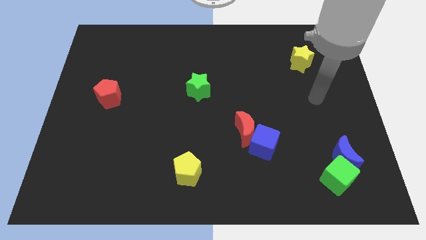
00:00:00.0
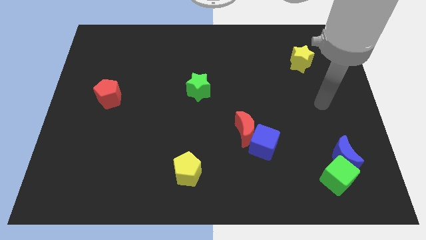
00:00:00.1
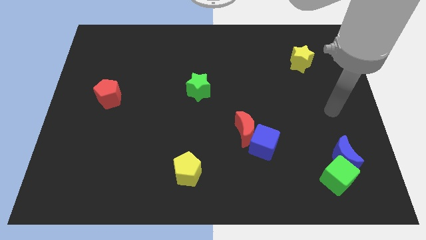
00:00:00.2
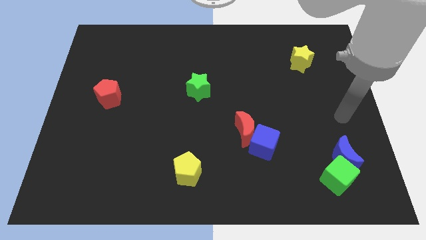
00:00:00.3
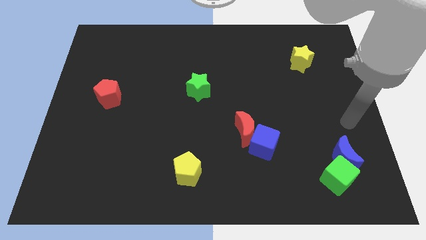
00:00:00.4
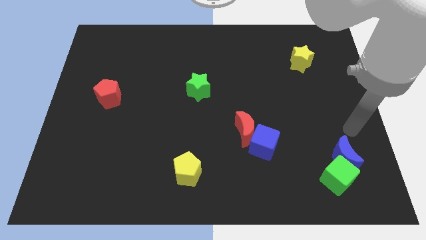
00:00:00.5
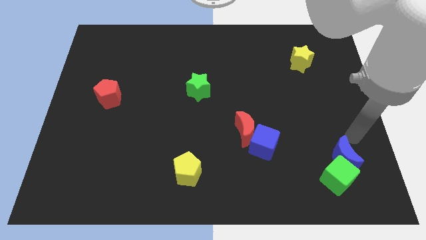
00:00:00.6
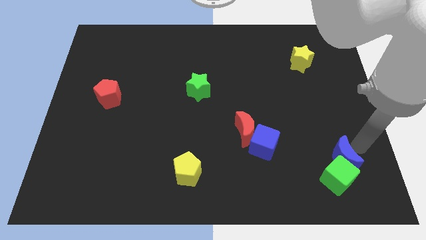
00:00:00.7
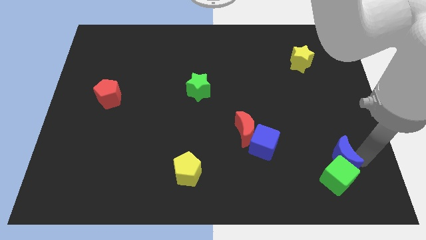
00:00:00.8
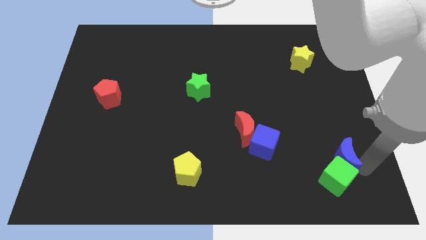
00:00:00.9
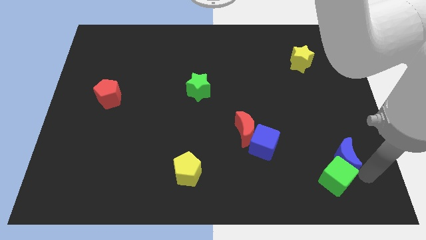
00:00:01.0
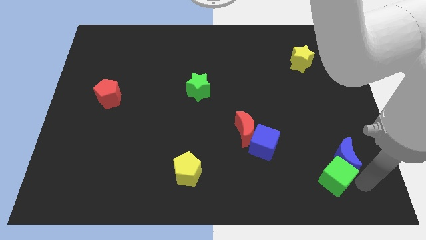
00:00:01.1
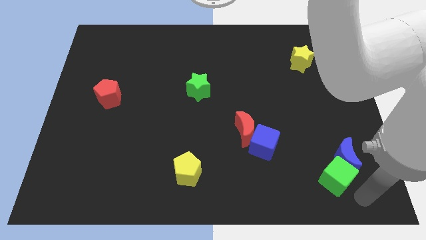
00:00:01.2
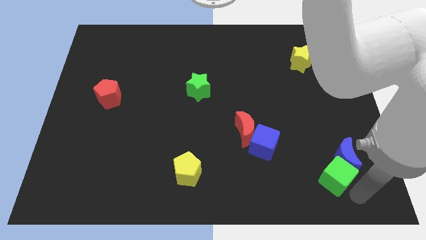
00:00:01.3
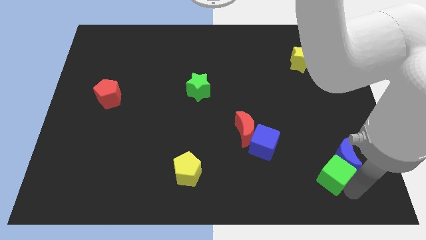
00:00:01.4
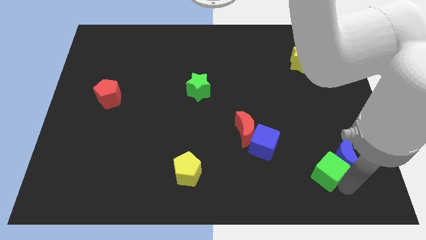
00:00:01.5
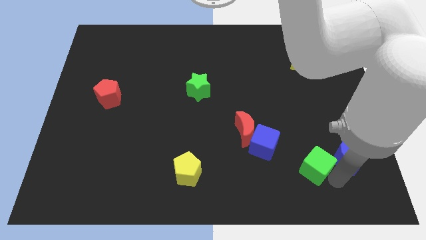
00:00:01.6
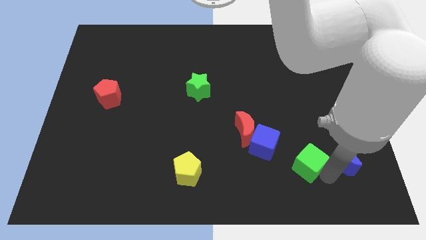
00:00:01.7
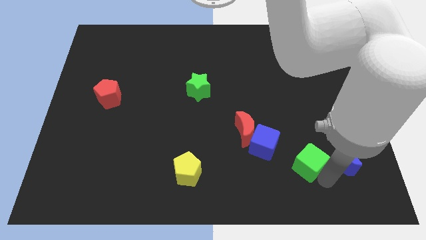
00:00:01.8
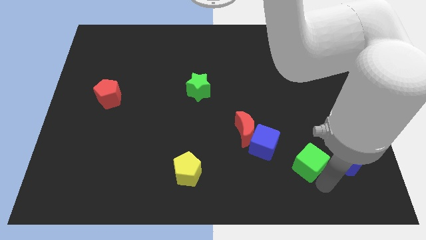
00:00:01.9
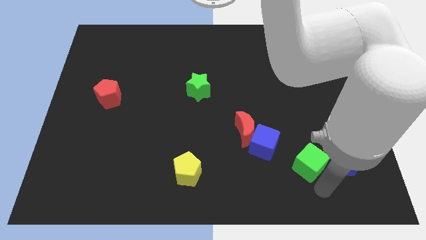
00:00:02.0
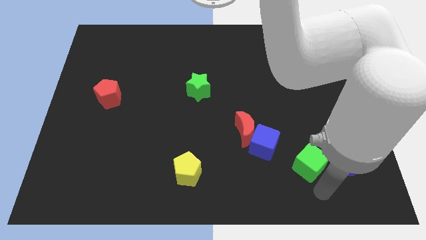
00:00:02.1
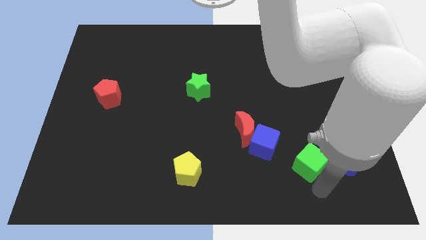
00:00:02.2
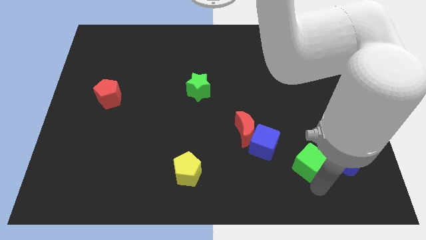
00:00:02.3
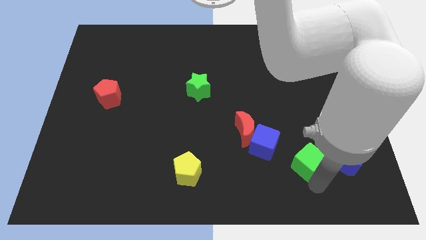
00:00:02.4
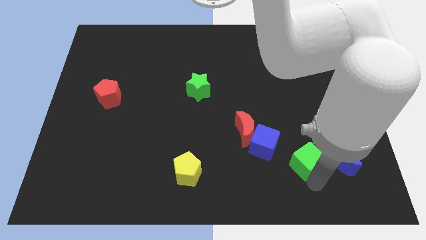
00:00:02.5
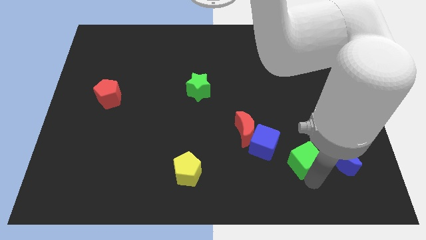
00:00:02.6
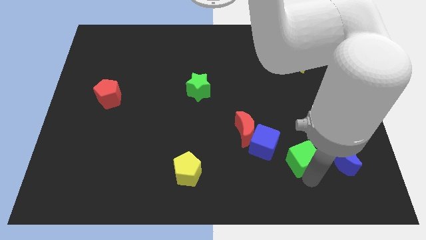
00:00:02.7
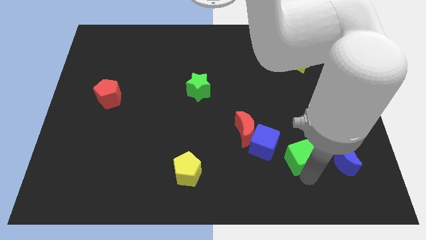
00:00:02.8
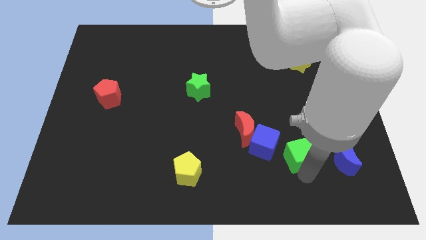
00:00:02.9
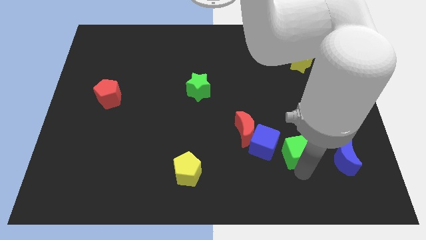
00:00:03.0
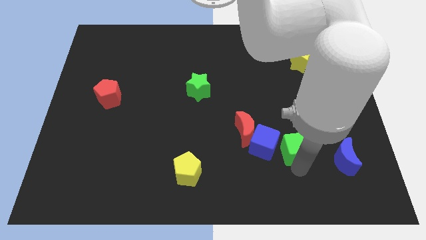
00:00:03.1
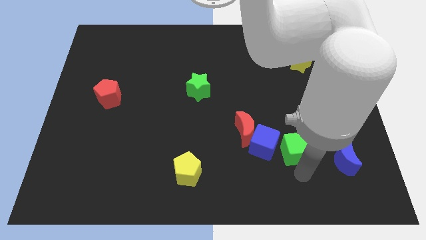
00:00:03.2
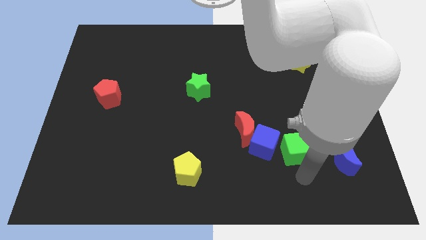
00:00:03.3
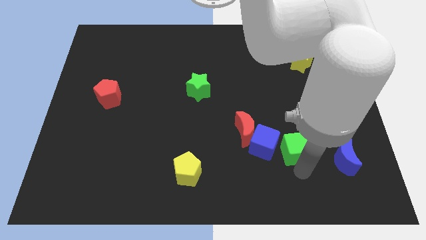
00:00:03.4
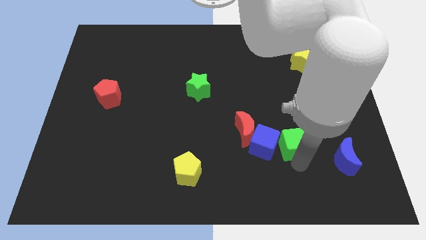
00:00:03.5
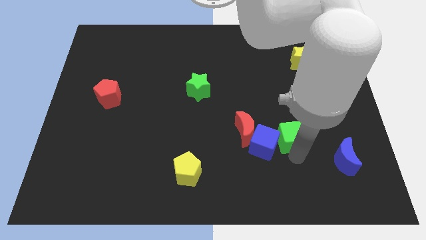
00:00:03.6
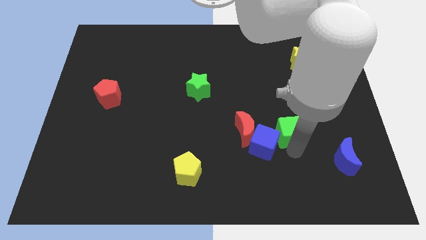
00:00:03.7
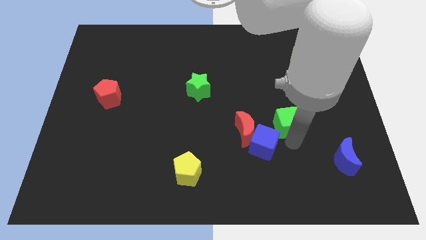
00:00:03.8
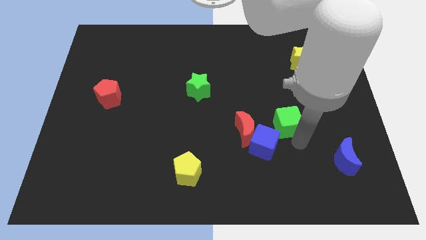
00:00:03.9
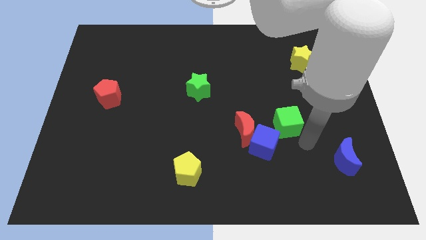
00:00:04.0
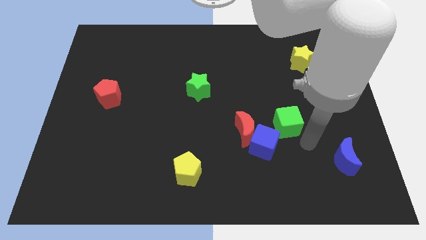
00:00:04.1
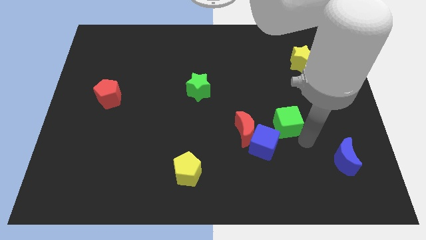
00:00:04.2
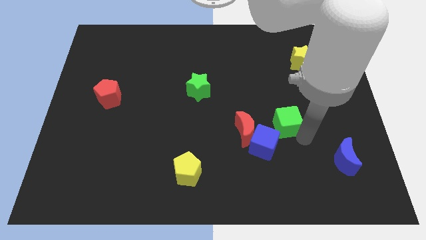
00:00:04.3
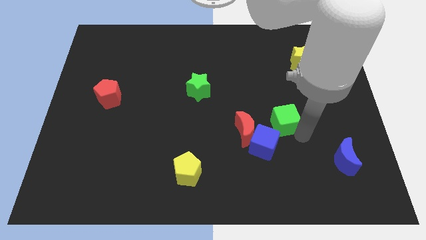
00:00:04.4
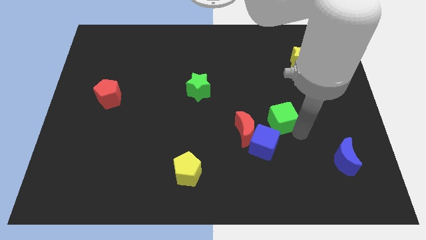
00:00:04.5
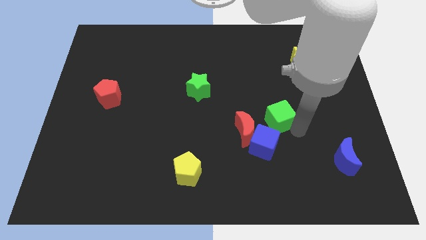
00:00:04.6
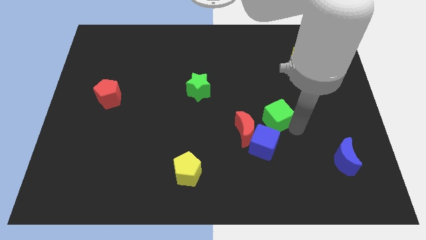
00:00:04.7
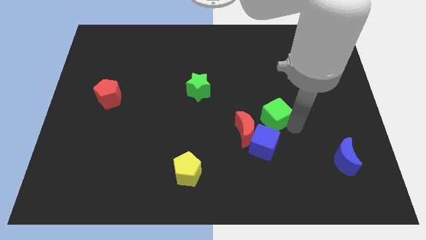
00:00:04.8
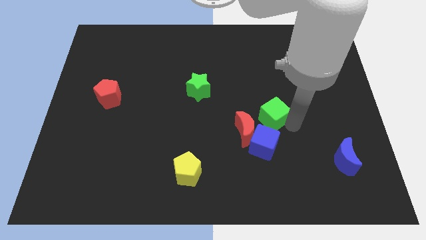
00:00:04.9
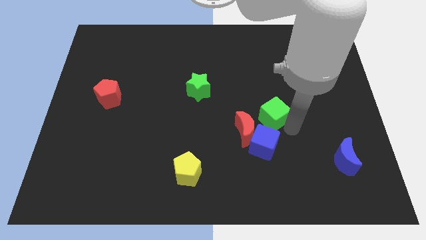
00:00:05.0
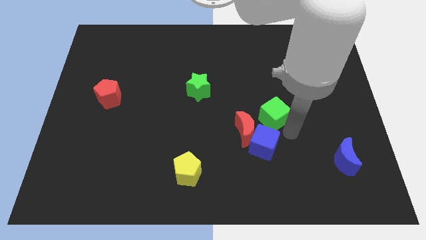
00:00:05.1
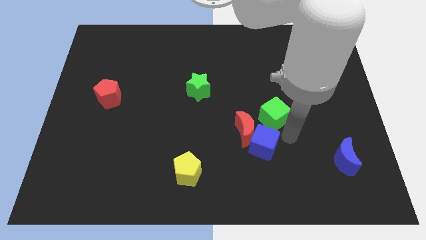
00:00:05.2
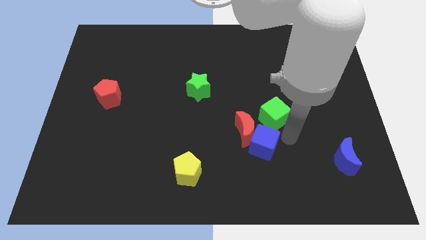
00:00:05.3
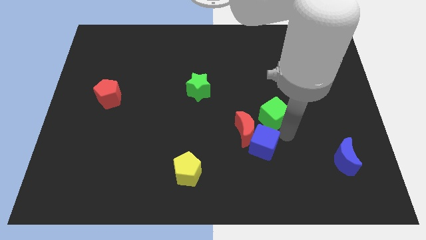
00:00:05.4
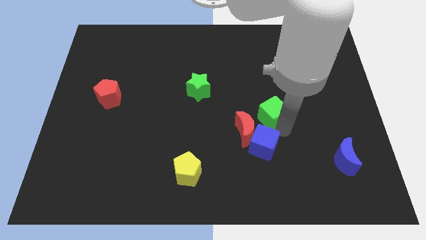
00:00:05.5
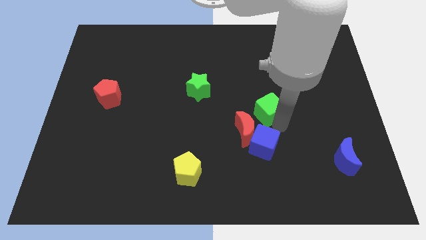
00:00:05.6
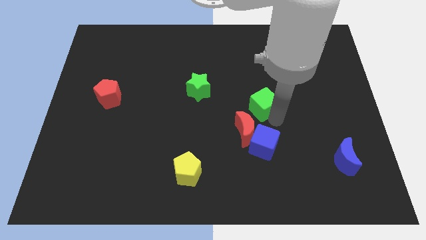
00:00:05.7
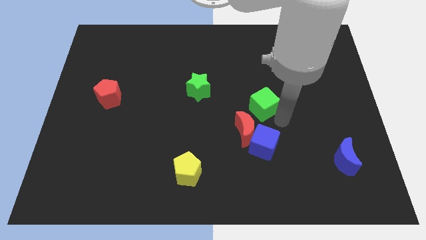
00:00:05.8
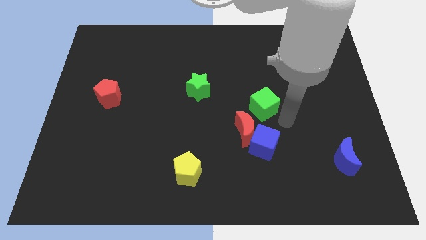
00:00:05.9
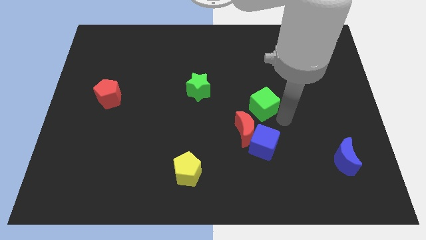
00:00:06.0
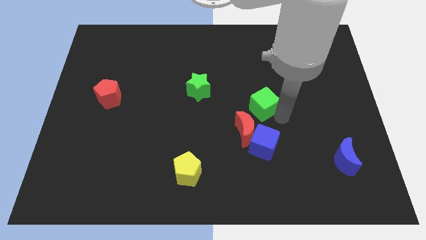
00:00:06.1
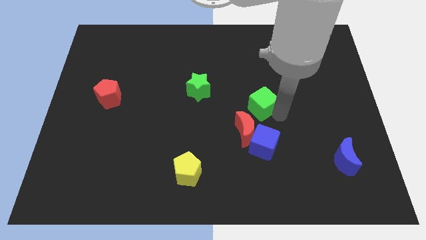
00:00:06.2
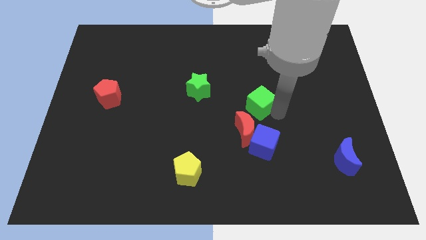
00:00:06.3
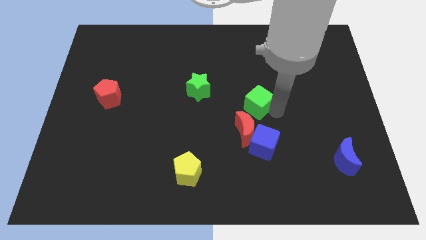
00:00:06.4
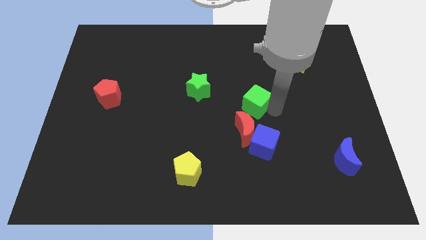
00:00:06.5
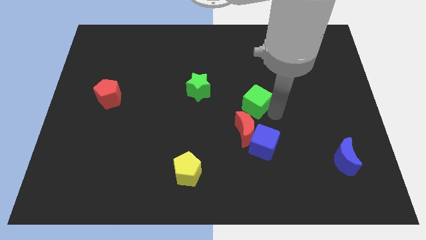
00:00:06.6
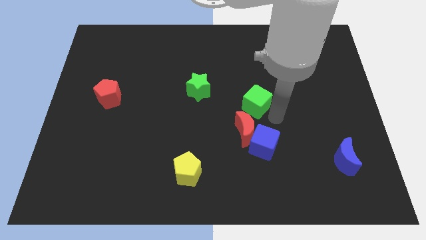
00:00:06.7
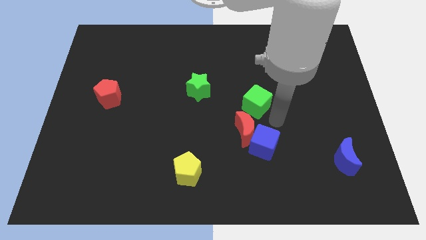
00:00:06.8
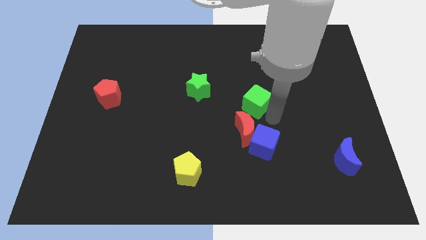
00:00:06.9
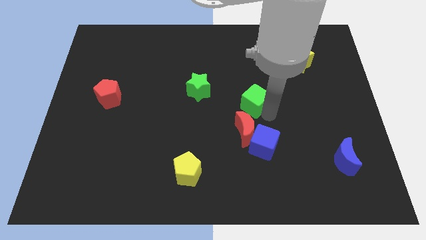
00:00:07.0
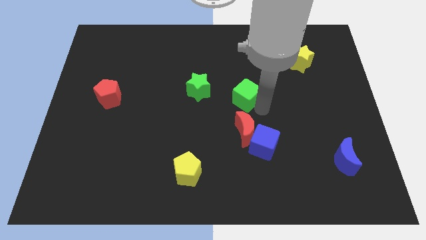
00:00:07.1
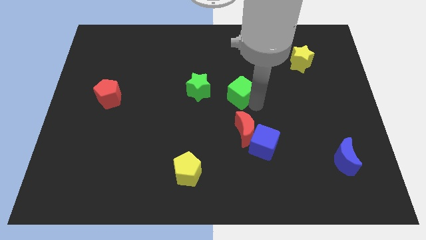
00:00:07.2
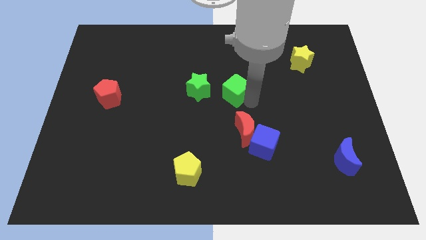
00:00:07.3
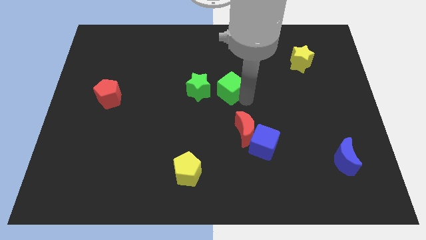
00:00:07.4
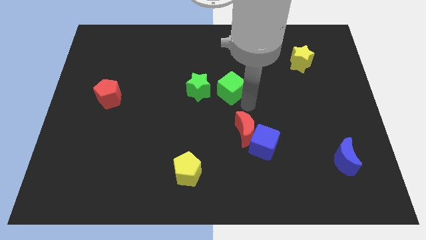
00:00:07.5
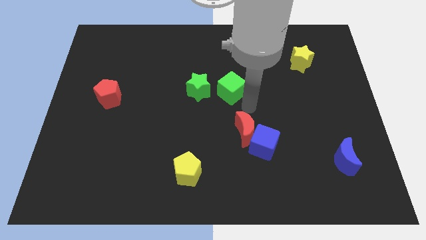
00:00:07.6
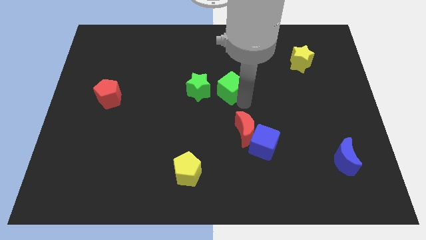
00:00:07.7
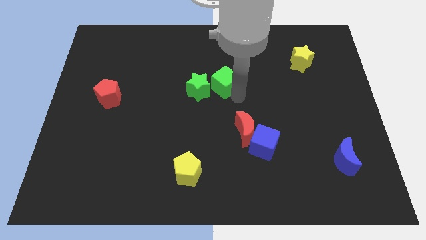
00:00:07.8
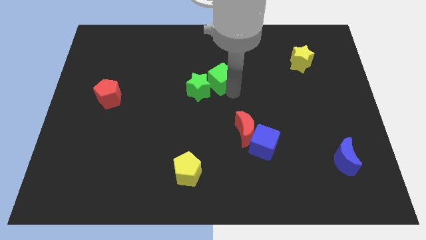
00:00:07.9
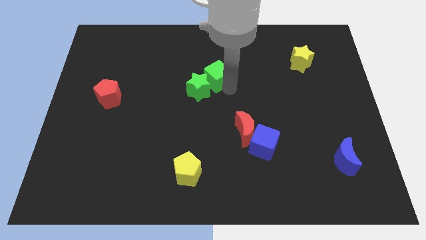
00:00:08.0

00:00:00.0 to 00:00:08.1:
push the green cube above the green star
